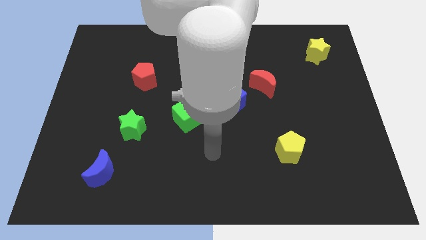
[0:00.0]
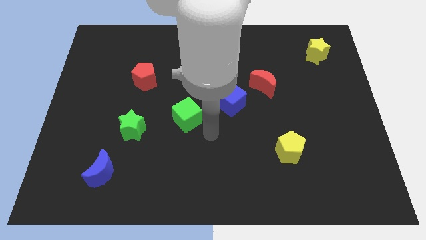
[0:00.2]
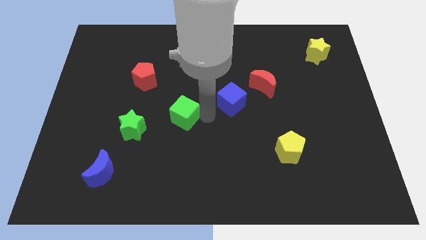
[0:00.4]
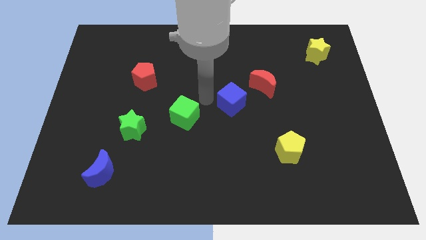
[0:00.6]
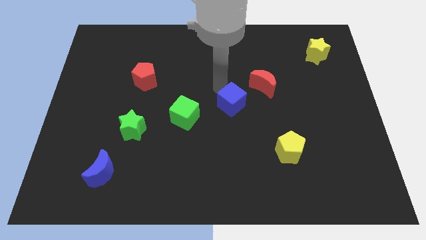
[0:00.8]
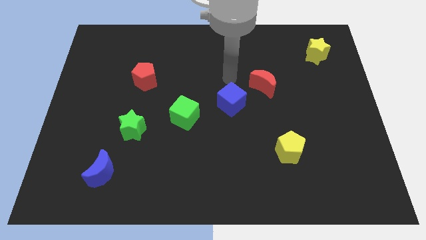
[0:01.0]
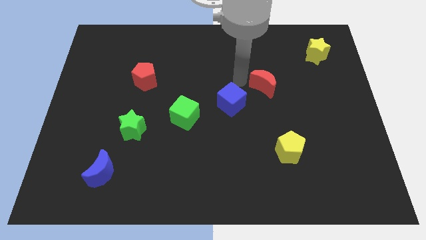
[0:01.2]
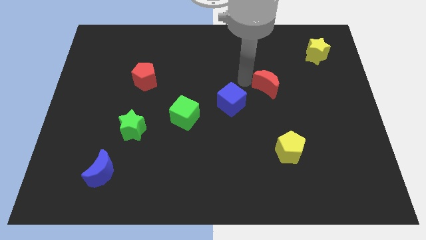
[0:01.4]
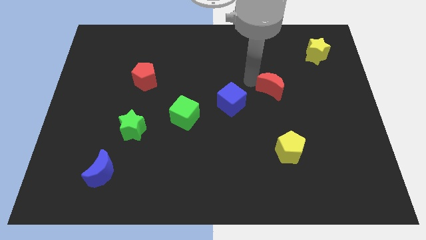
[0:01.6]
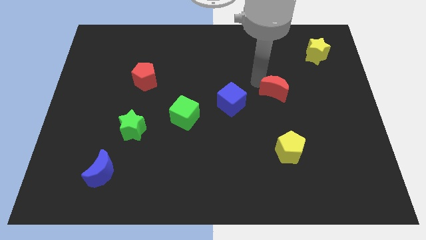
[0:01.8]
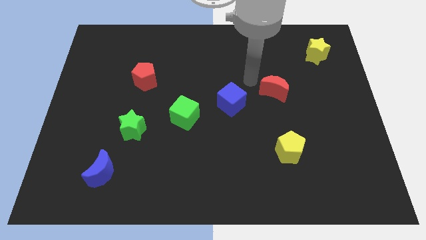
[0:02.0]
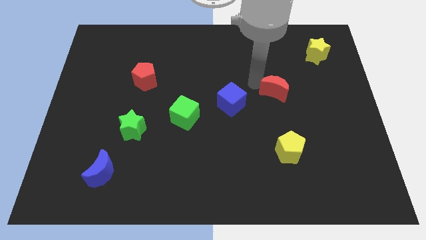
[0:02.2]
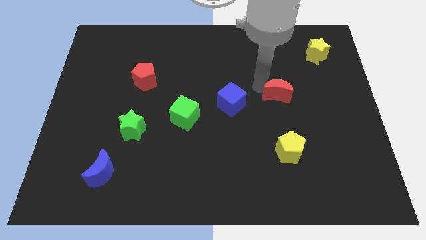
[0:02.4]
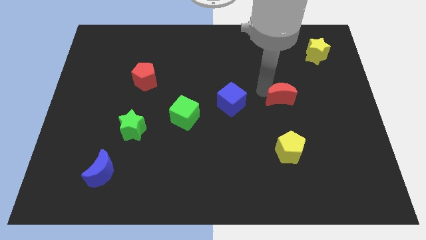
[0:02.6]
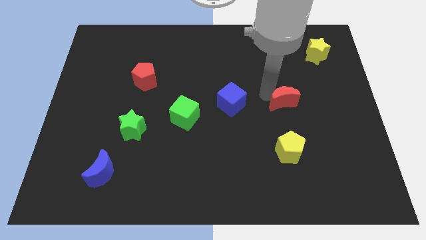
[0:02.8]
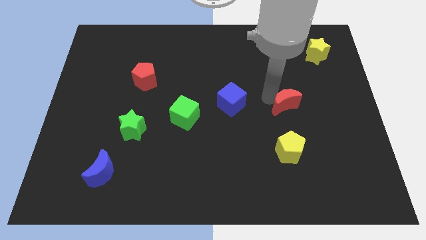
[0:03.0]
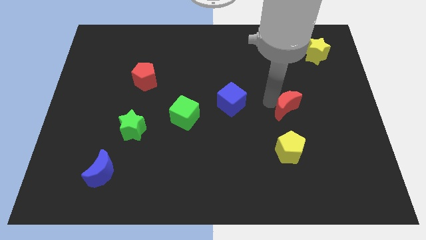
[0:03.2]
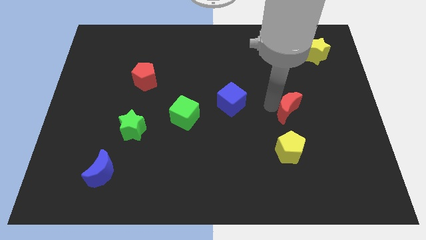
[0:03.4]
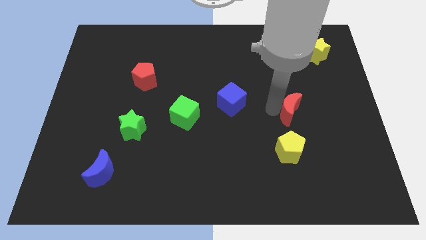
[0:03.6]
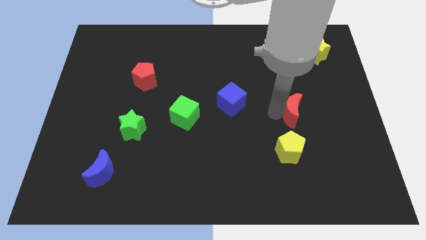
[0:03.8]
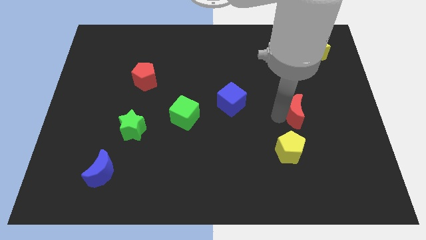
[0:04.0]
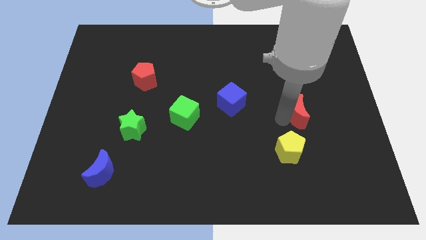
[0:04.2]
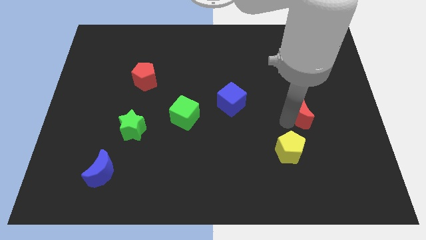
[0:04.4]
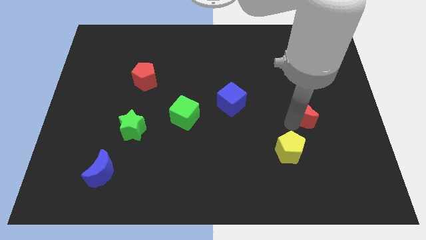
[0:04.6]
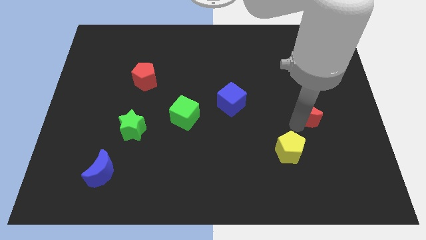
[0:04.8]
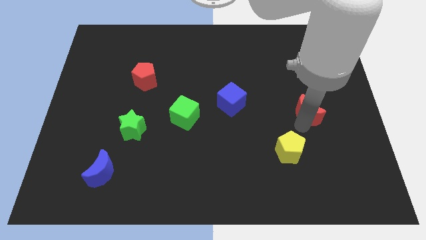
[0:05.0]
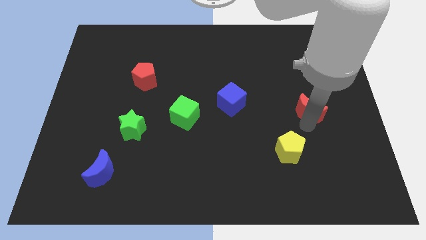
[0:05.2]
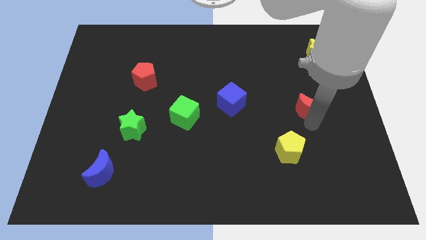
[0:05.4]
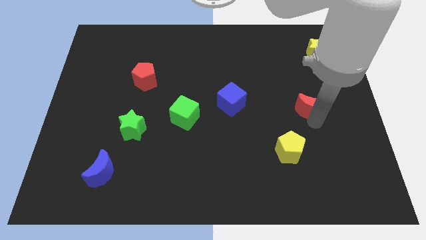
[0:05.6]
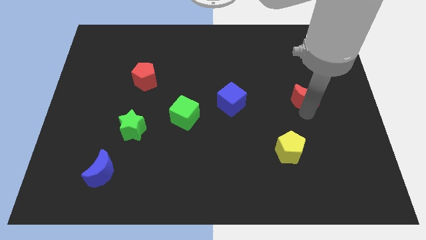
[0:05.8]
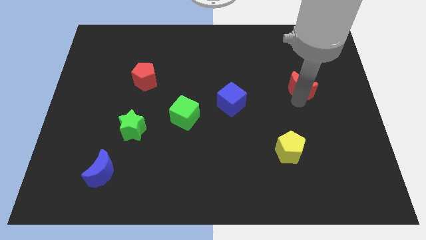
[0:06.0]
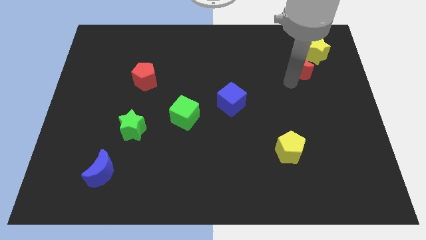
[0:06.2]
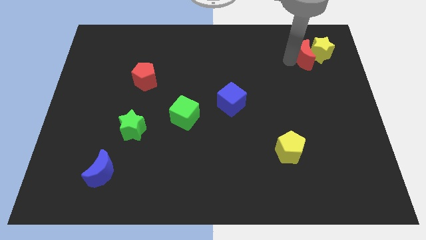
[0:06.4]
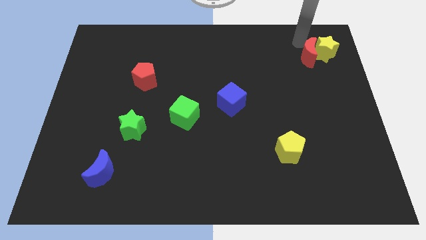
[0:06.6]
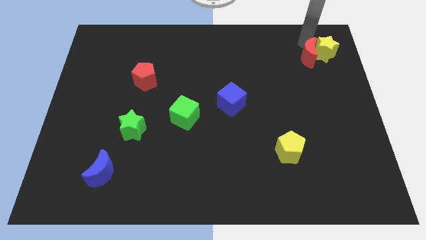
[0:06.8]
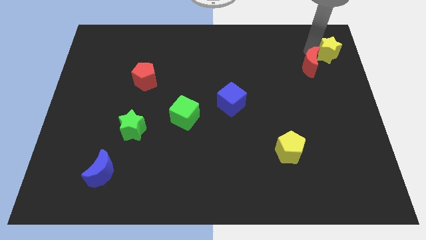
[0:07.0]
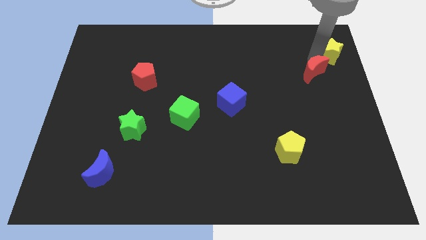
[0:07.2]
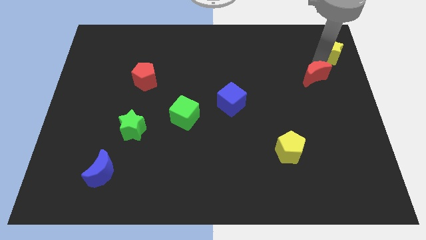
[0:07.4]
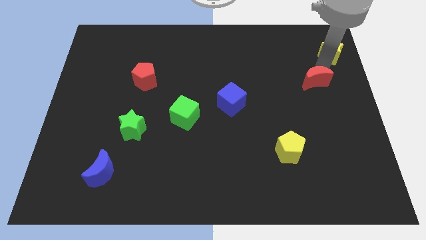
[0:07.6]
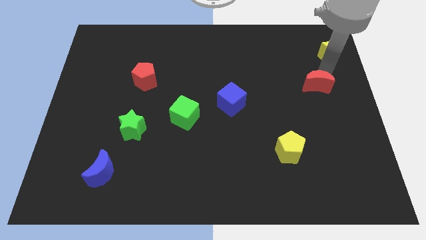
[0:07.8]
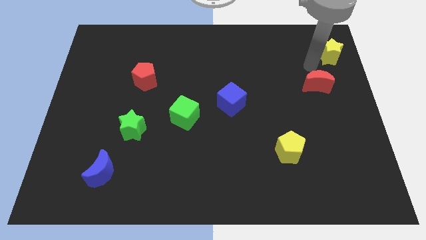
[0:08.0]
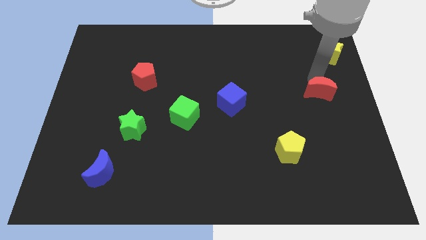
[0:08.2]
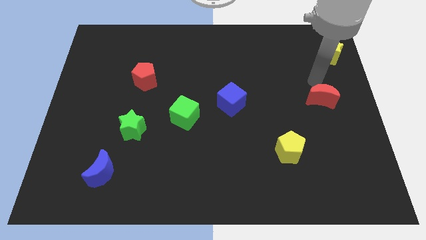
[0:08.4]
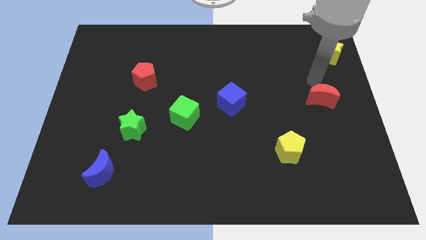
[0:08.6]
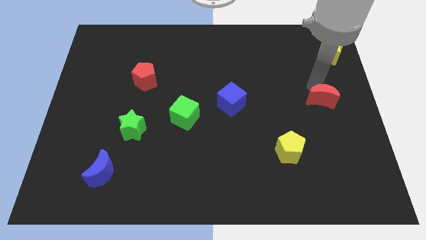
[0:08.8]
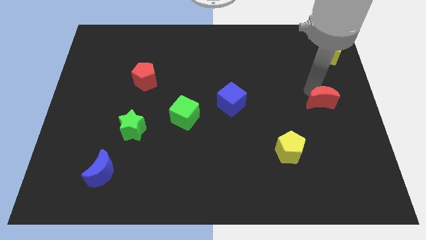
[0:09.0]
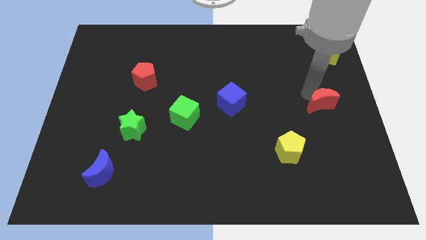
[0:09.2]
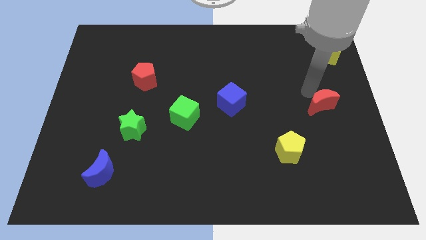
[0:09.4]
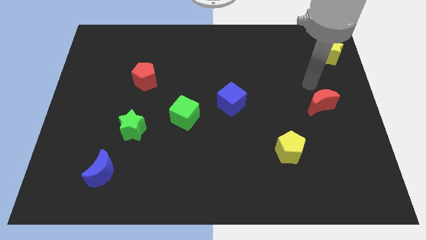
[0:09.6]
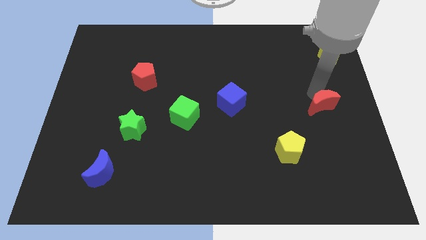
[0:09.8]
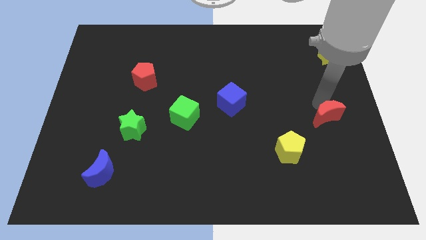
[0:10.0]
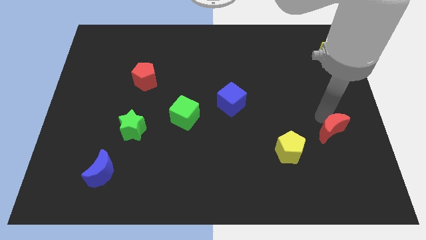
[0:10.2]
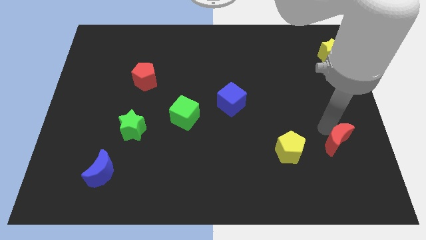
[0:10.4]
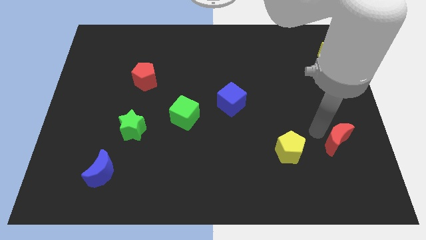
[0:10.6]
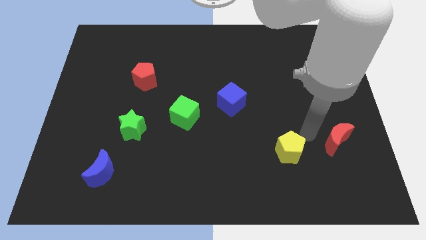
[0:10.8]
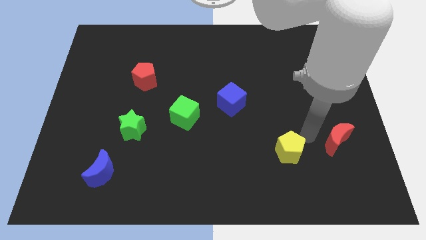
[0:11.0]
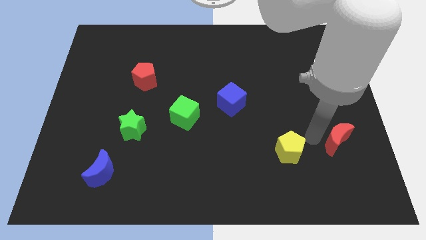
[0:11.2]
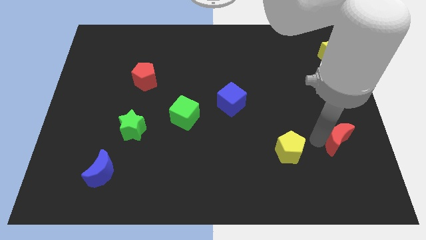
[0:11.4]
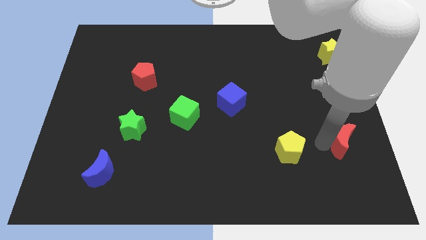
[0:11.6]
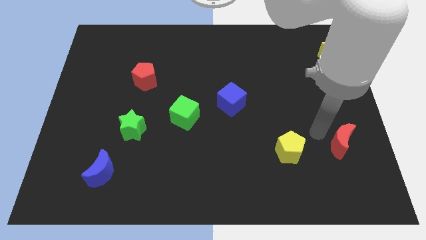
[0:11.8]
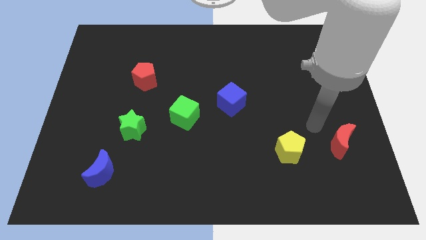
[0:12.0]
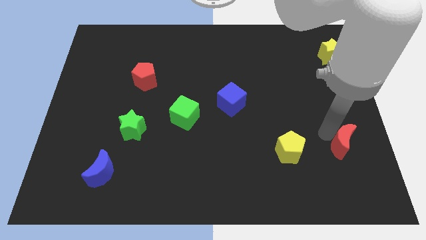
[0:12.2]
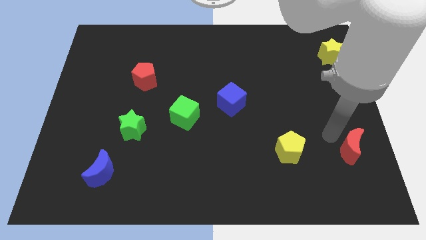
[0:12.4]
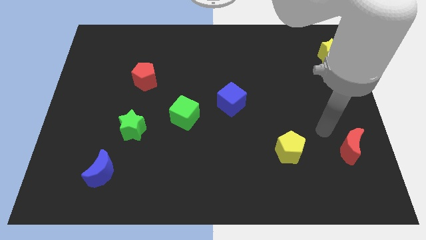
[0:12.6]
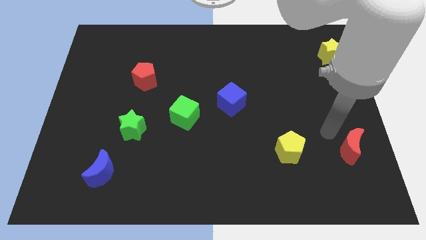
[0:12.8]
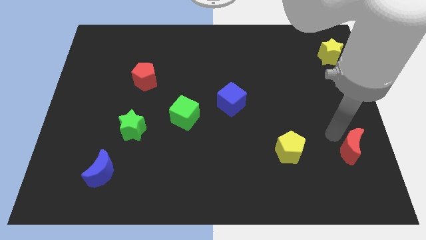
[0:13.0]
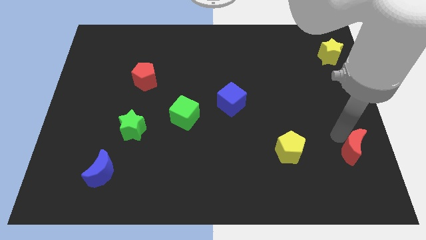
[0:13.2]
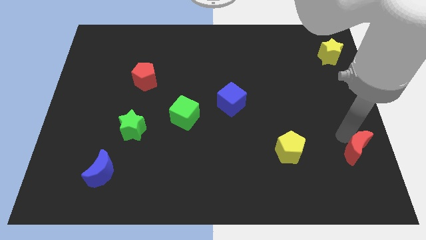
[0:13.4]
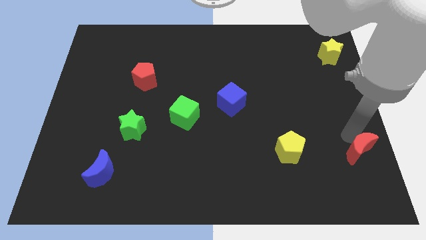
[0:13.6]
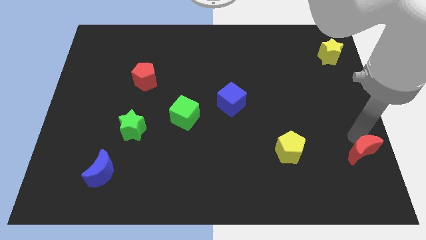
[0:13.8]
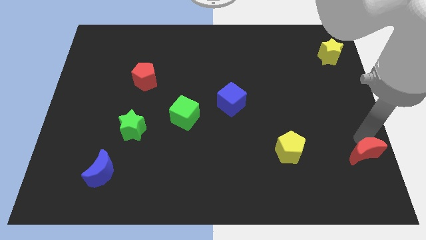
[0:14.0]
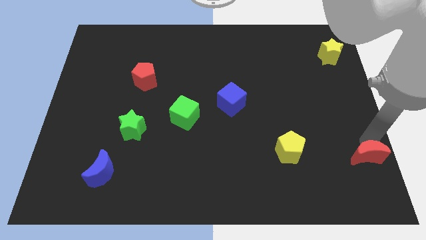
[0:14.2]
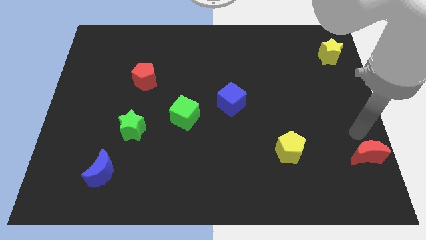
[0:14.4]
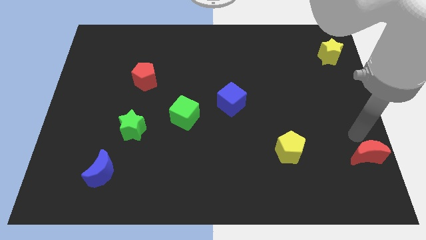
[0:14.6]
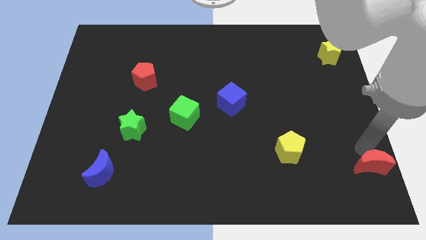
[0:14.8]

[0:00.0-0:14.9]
slide the red moon to the bottom right corner
